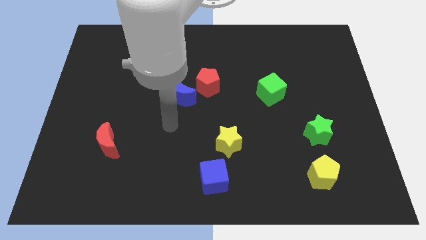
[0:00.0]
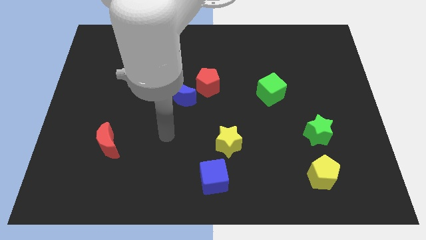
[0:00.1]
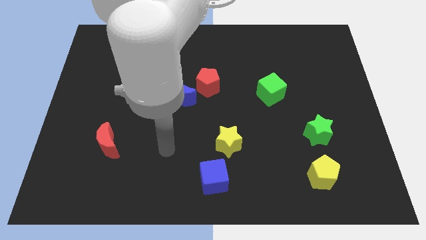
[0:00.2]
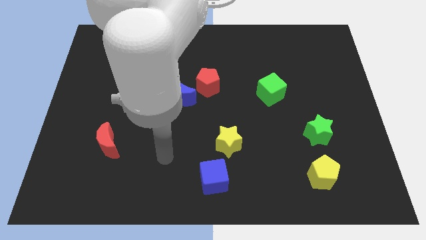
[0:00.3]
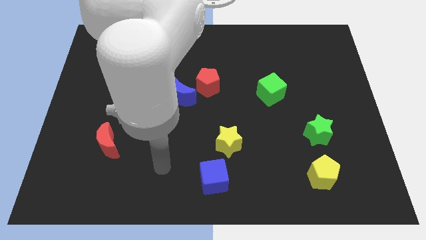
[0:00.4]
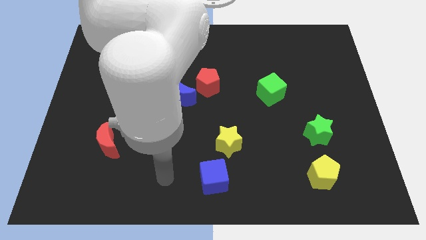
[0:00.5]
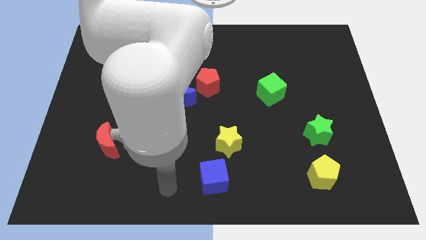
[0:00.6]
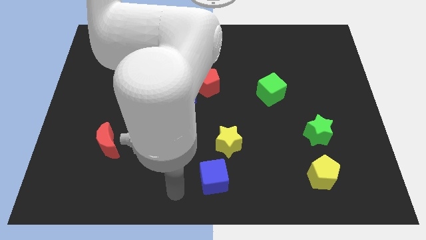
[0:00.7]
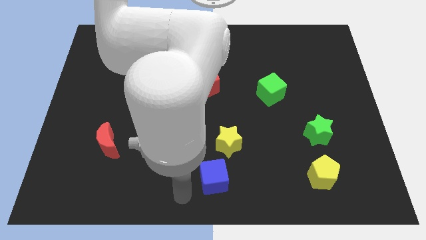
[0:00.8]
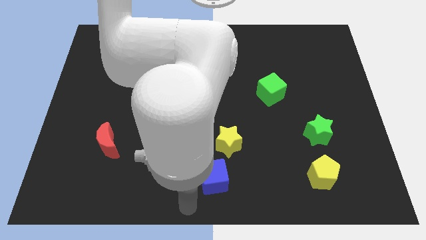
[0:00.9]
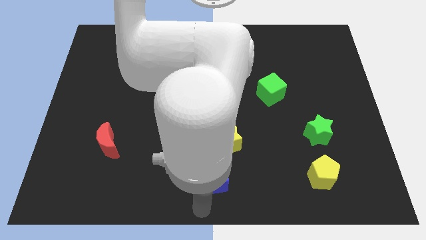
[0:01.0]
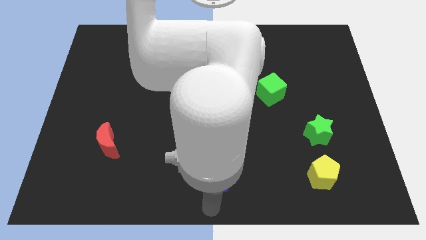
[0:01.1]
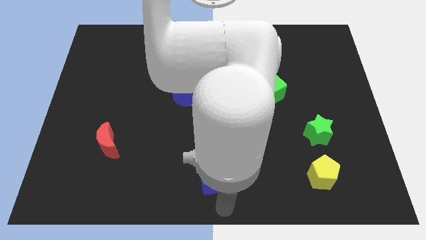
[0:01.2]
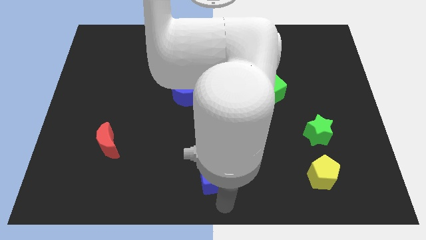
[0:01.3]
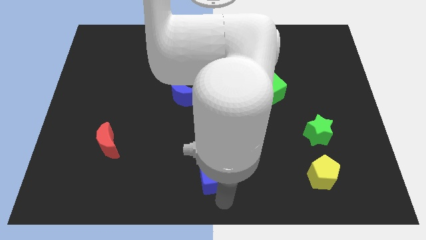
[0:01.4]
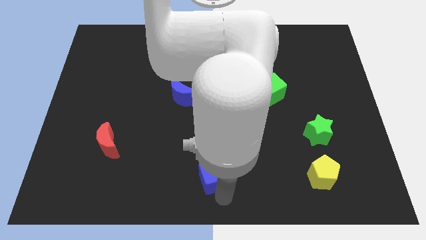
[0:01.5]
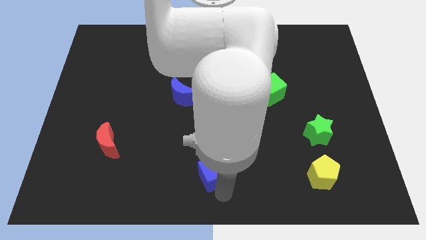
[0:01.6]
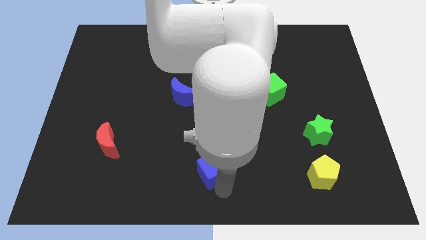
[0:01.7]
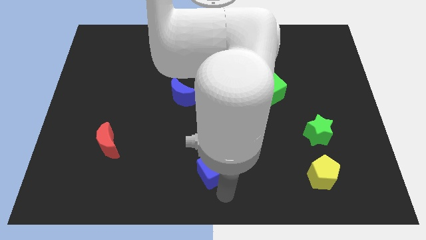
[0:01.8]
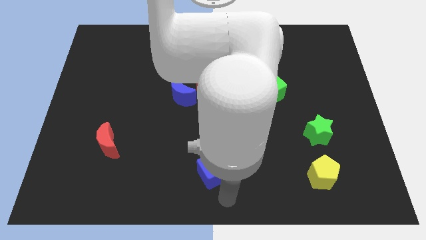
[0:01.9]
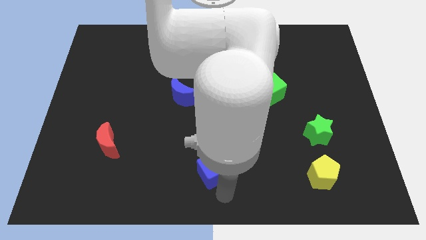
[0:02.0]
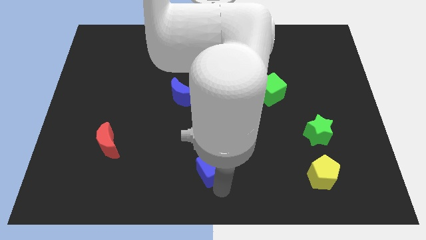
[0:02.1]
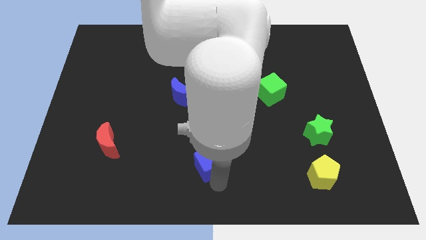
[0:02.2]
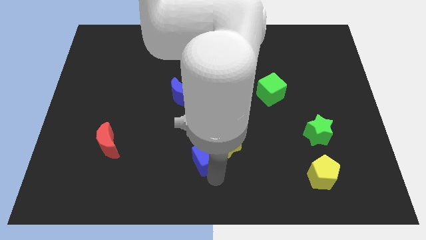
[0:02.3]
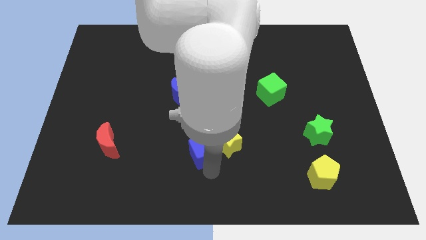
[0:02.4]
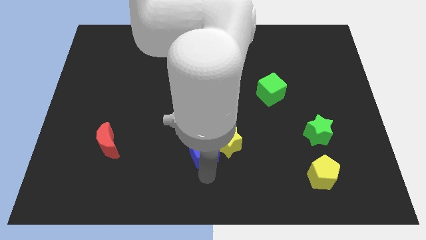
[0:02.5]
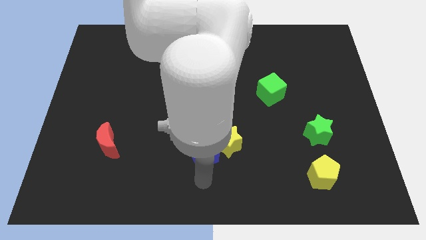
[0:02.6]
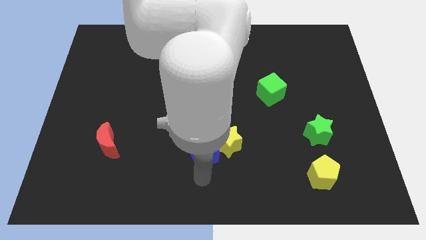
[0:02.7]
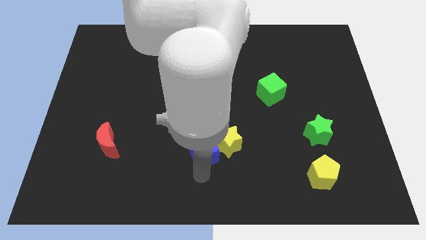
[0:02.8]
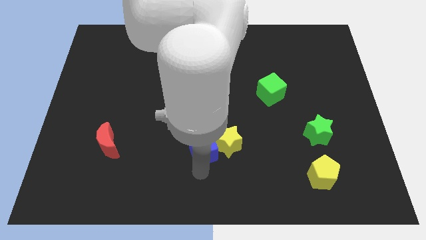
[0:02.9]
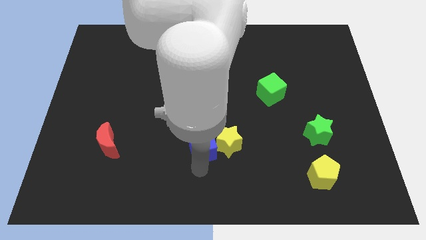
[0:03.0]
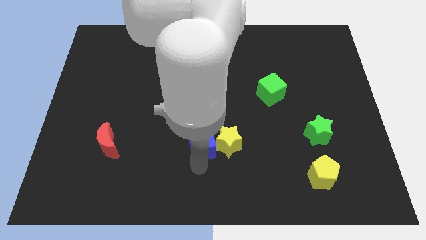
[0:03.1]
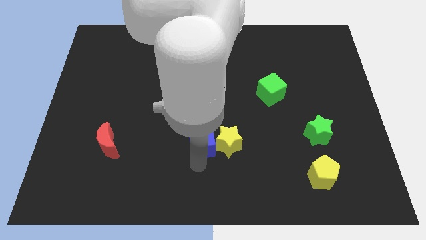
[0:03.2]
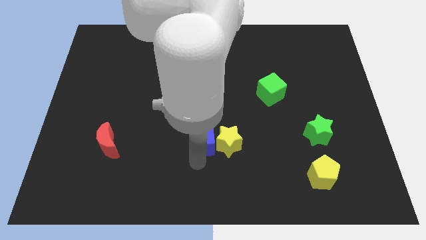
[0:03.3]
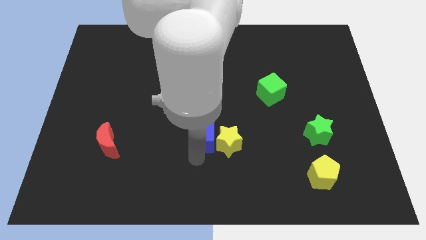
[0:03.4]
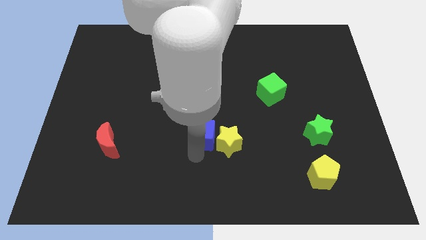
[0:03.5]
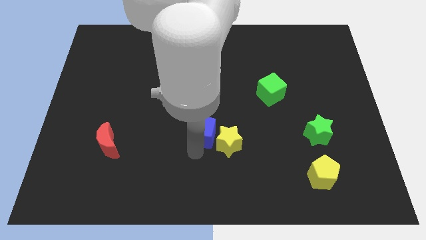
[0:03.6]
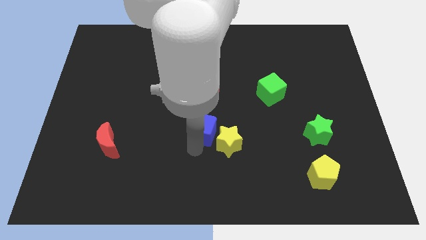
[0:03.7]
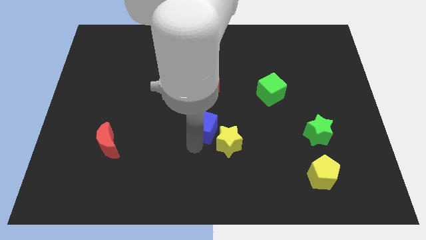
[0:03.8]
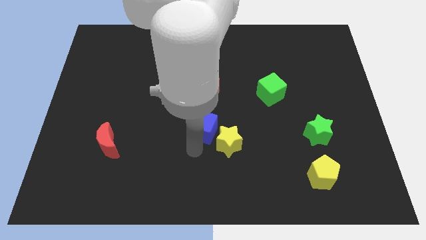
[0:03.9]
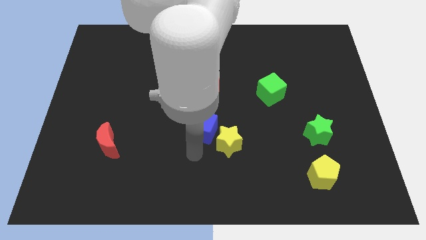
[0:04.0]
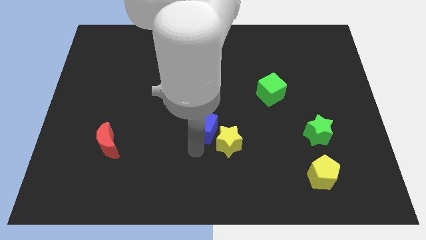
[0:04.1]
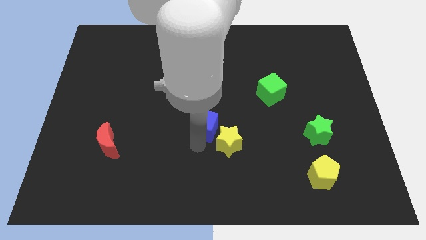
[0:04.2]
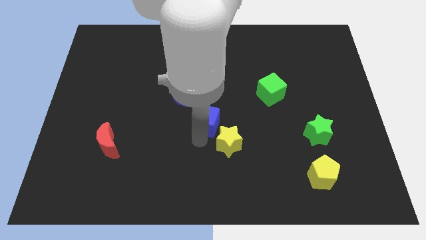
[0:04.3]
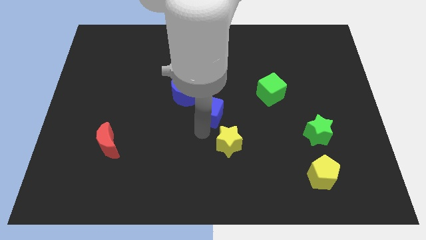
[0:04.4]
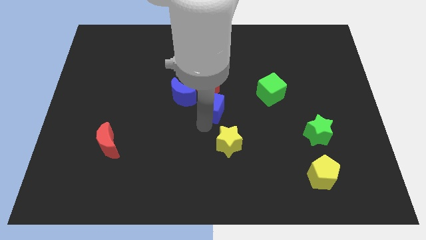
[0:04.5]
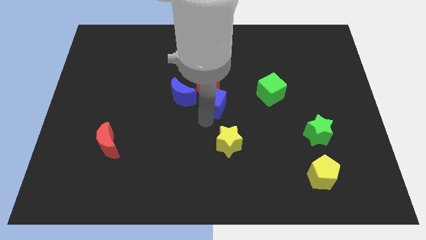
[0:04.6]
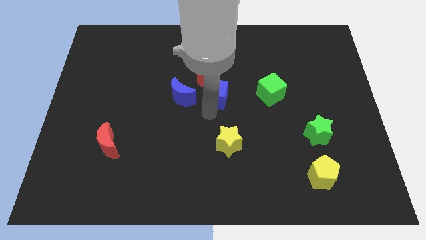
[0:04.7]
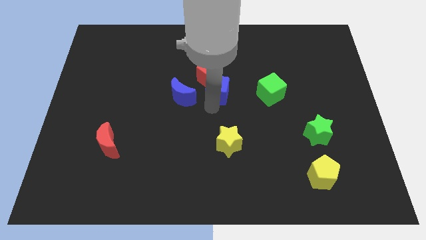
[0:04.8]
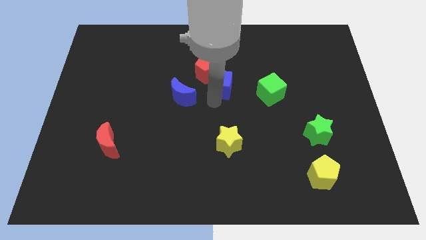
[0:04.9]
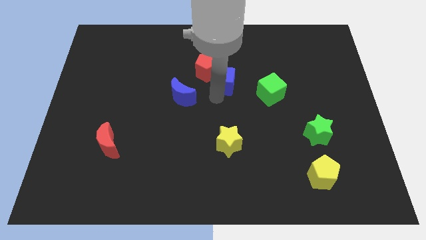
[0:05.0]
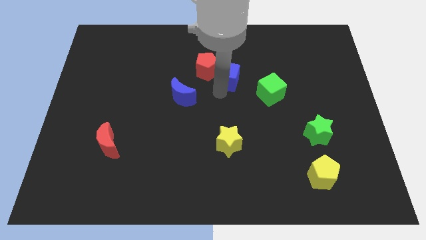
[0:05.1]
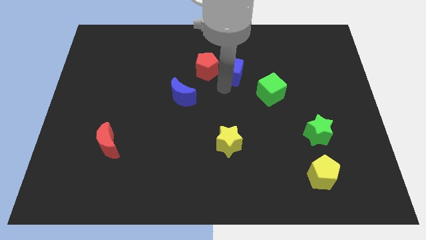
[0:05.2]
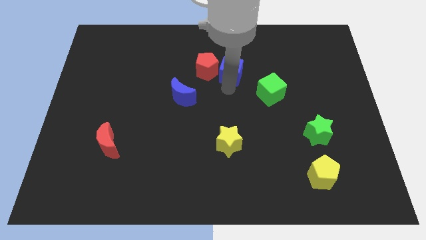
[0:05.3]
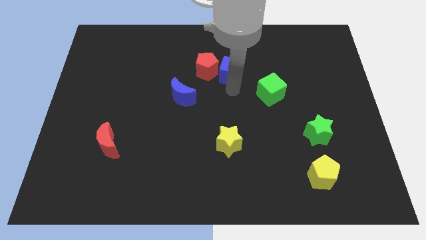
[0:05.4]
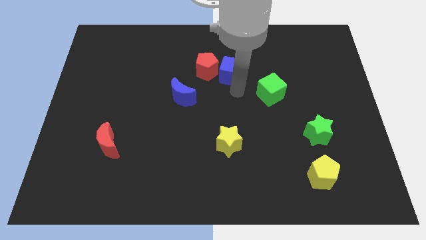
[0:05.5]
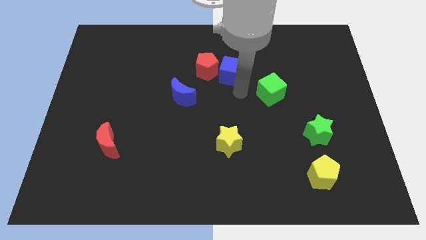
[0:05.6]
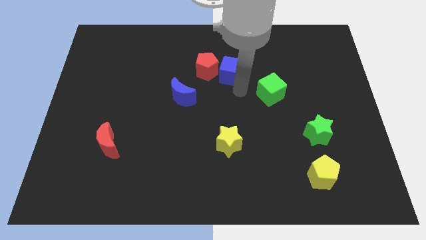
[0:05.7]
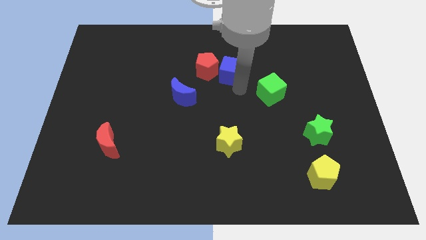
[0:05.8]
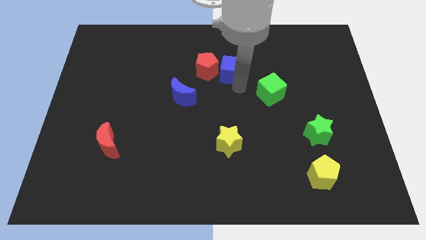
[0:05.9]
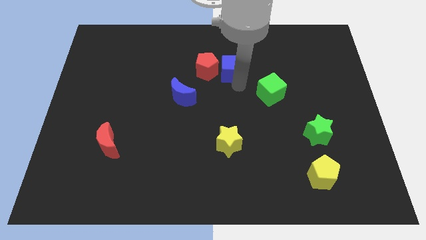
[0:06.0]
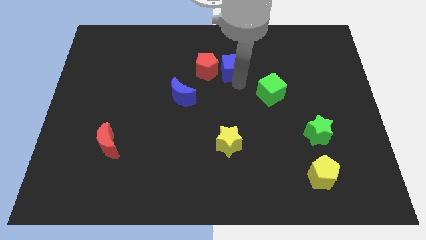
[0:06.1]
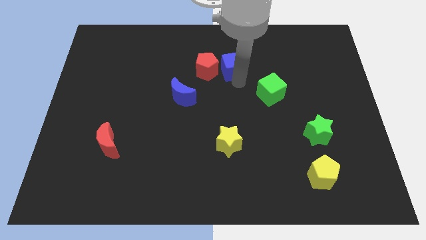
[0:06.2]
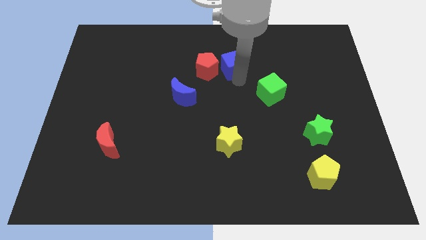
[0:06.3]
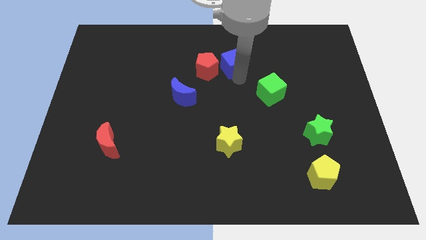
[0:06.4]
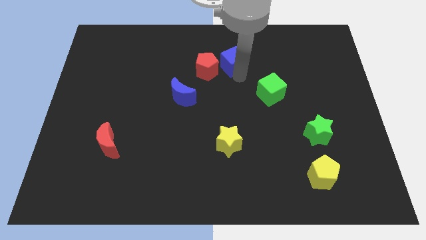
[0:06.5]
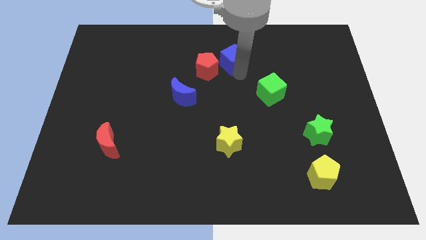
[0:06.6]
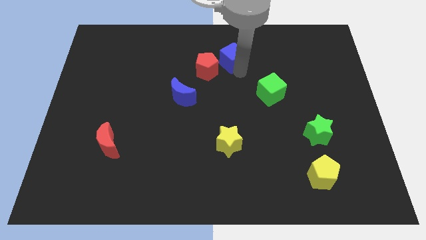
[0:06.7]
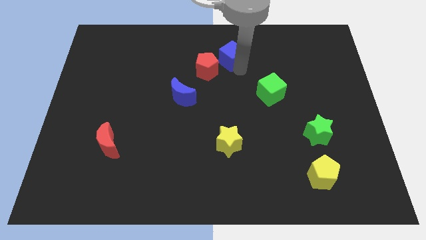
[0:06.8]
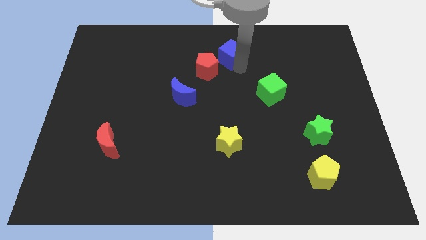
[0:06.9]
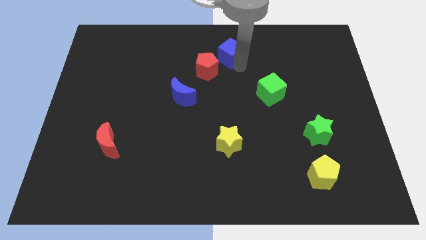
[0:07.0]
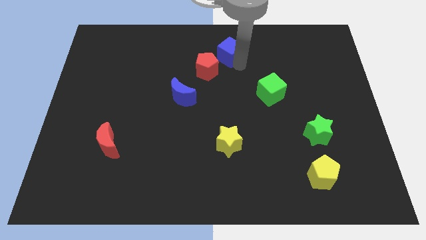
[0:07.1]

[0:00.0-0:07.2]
slide the blue cube to the top
